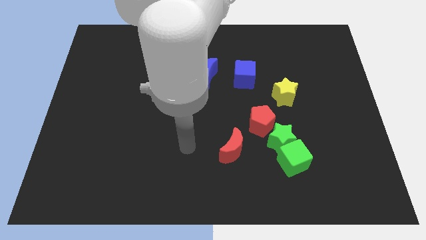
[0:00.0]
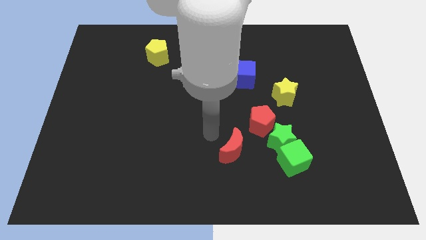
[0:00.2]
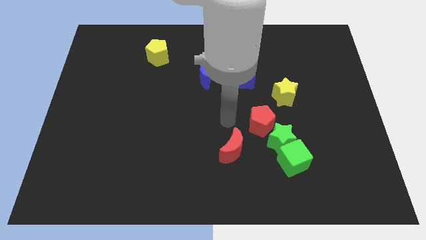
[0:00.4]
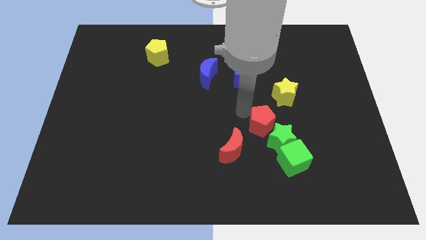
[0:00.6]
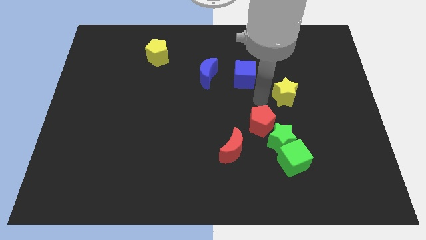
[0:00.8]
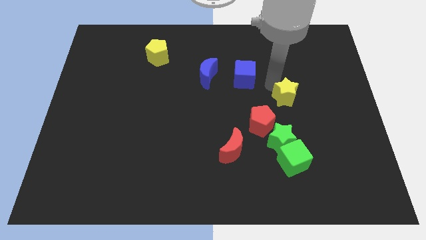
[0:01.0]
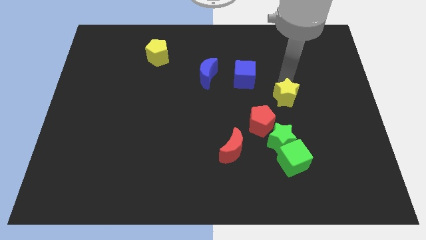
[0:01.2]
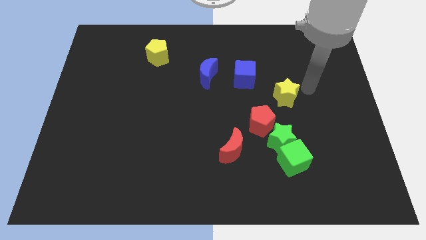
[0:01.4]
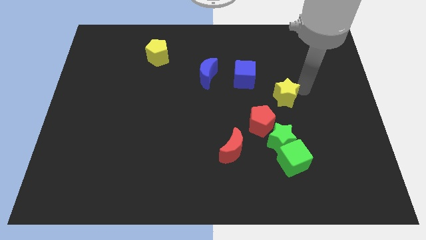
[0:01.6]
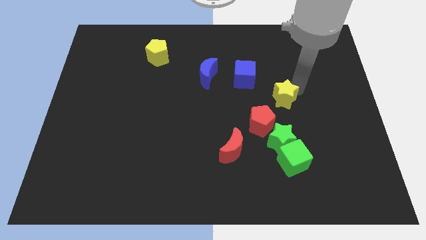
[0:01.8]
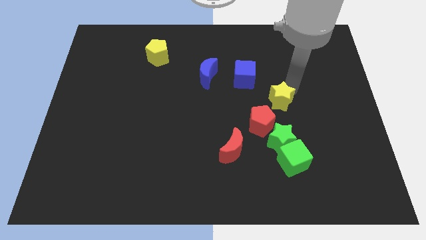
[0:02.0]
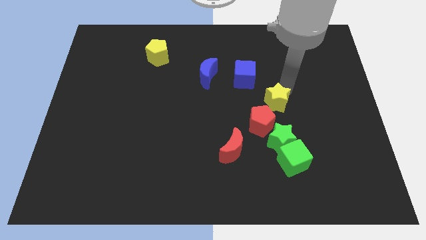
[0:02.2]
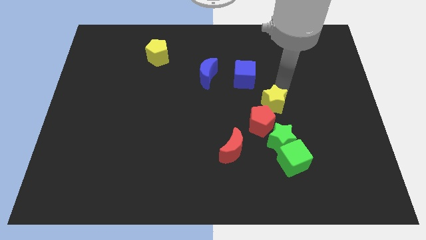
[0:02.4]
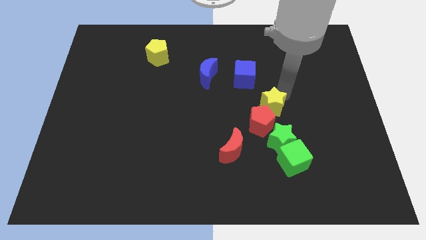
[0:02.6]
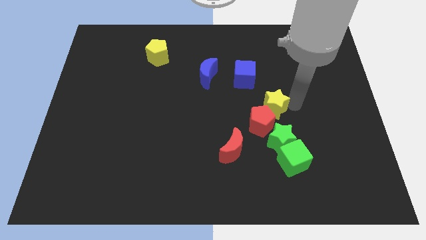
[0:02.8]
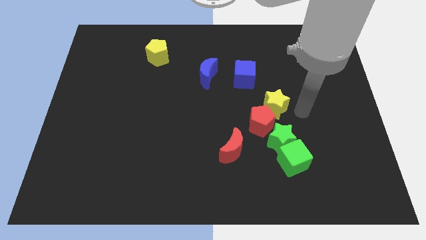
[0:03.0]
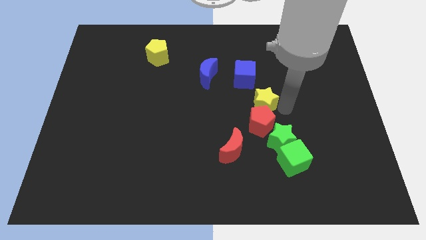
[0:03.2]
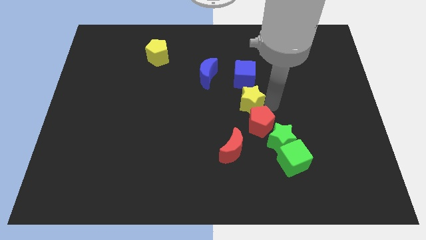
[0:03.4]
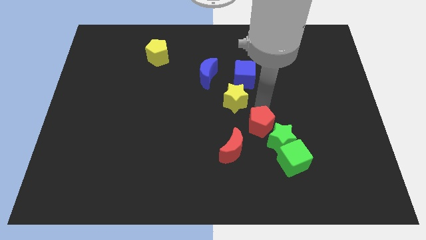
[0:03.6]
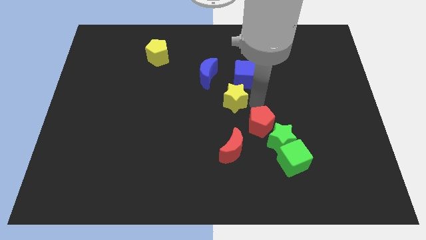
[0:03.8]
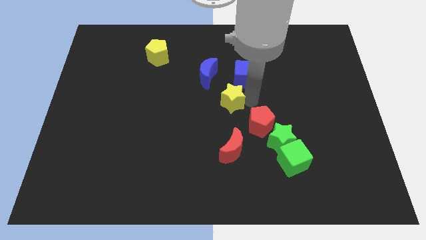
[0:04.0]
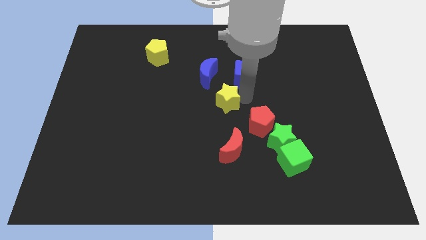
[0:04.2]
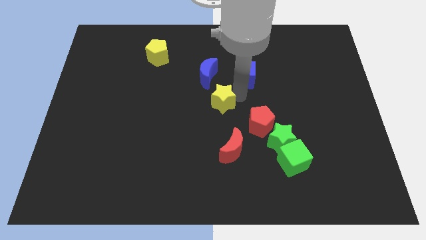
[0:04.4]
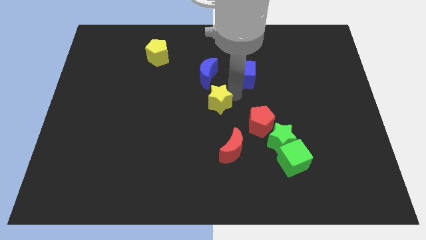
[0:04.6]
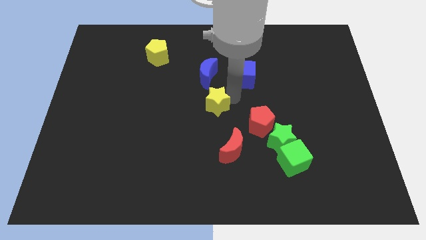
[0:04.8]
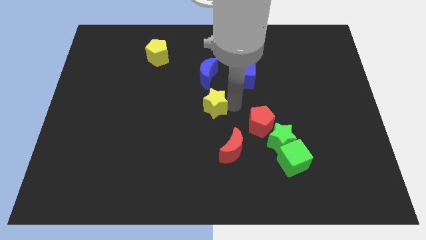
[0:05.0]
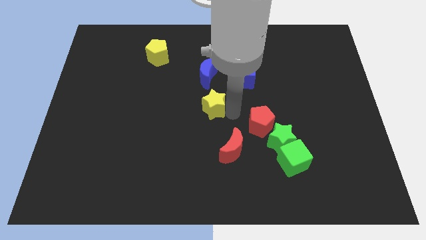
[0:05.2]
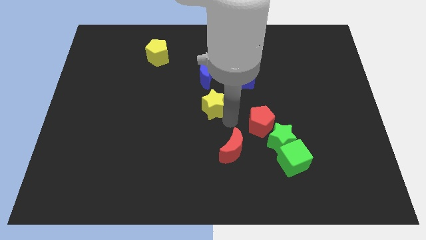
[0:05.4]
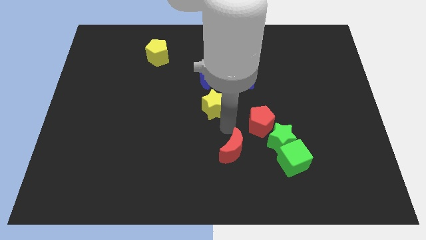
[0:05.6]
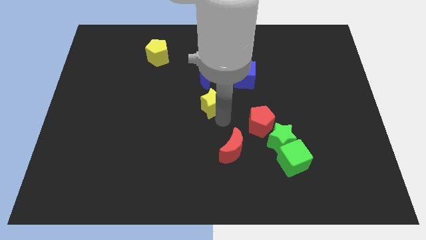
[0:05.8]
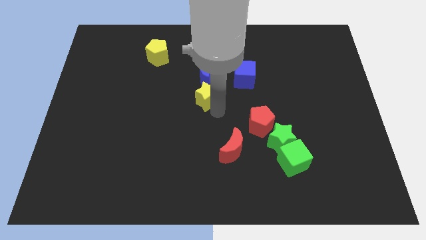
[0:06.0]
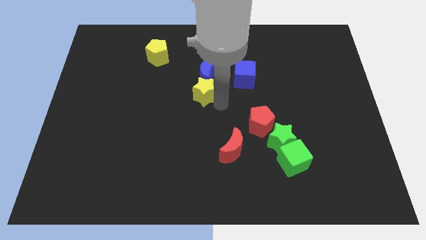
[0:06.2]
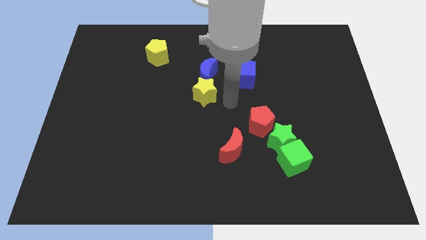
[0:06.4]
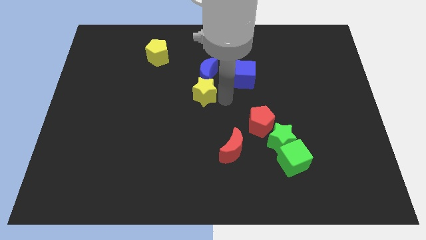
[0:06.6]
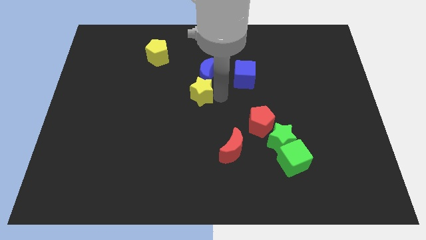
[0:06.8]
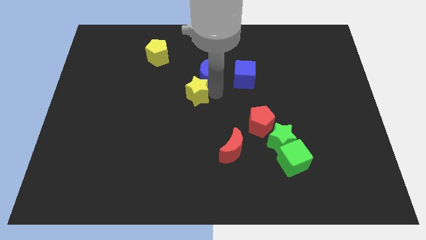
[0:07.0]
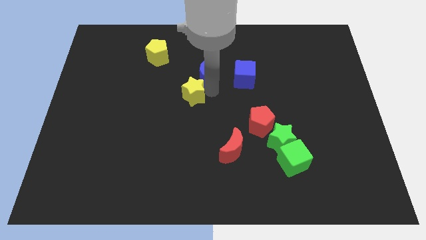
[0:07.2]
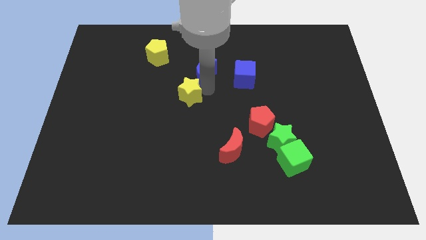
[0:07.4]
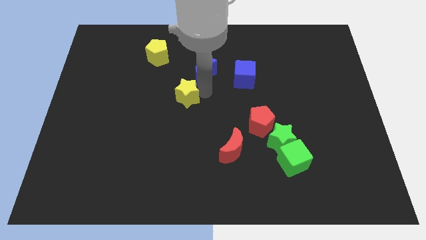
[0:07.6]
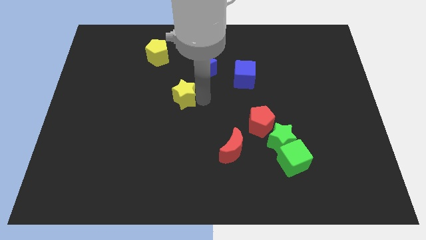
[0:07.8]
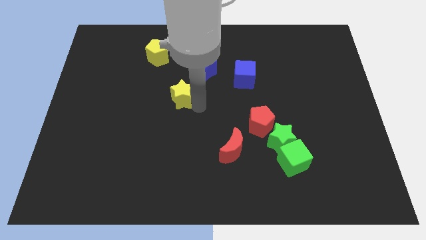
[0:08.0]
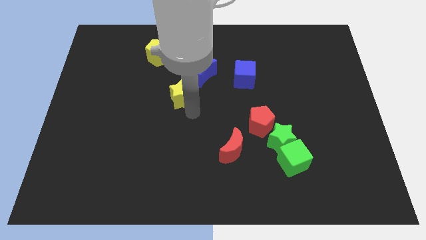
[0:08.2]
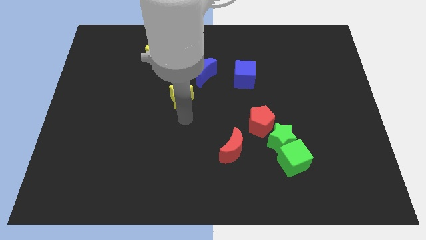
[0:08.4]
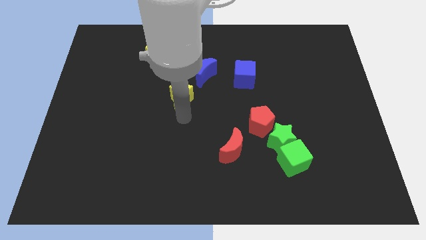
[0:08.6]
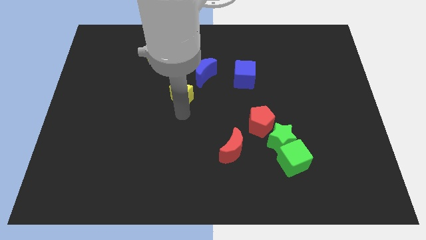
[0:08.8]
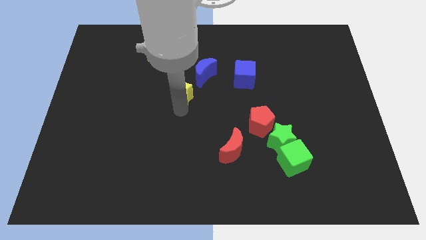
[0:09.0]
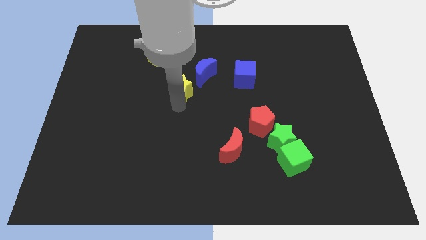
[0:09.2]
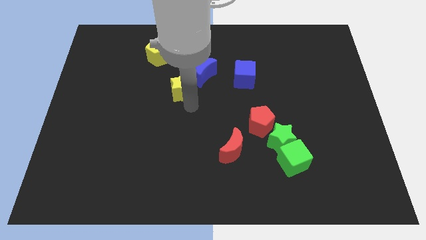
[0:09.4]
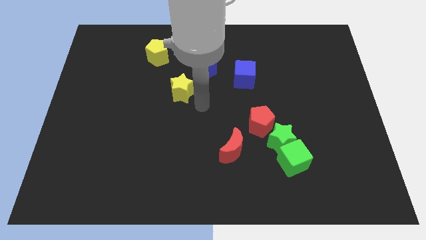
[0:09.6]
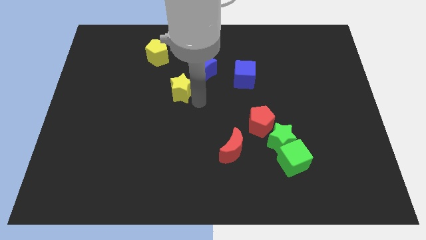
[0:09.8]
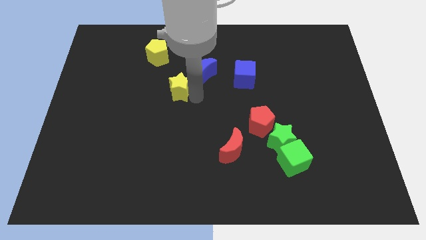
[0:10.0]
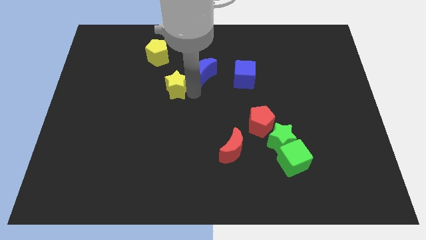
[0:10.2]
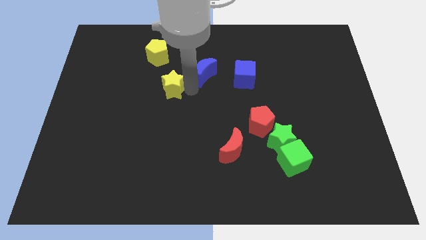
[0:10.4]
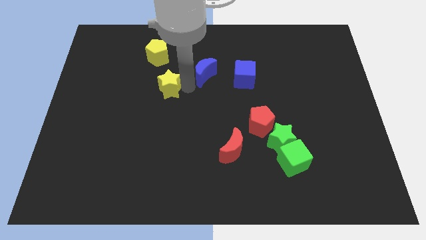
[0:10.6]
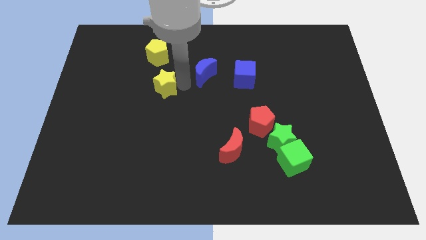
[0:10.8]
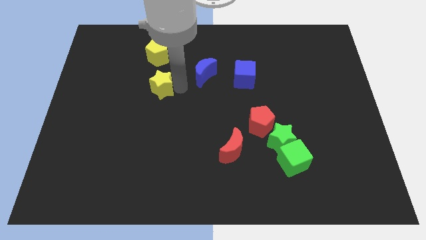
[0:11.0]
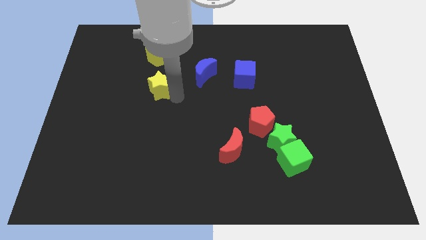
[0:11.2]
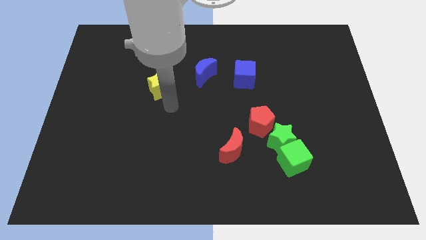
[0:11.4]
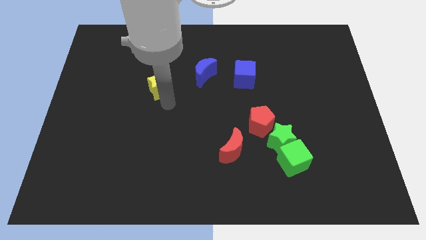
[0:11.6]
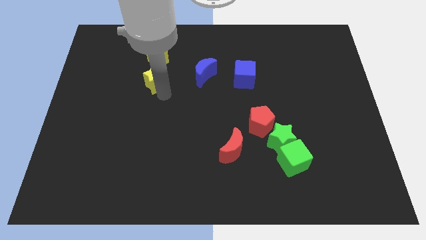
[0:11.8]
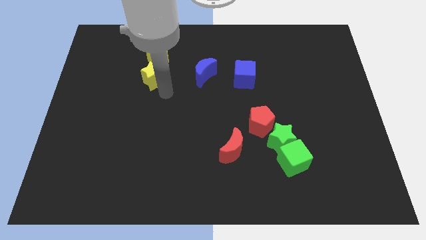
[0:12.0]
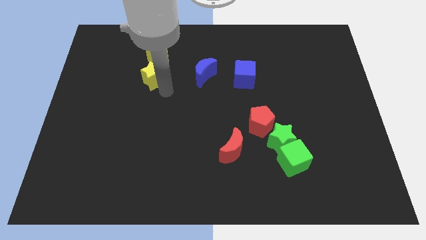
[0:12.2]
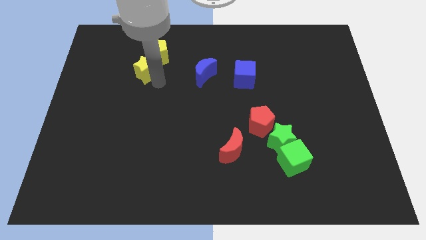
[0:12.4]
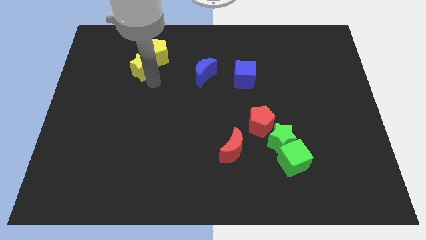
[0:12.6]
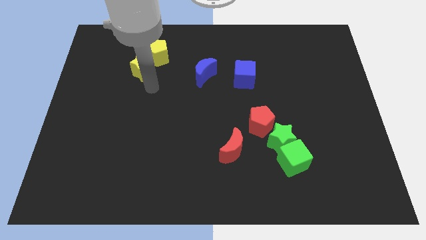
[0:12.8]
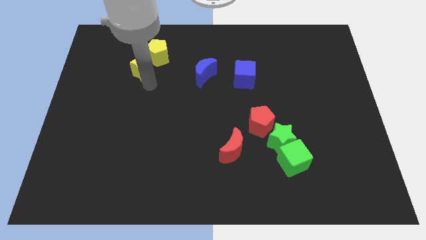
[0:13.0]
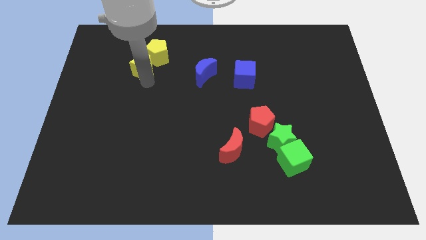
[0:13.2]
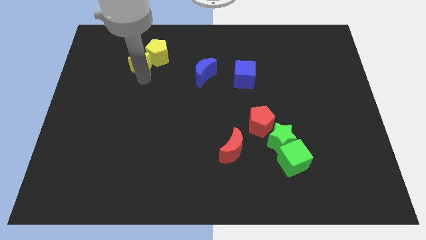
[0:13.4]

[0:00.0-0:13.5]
push the yellow star to the left side of the yellow pentagon

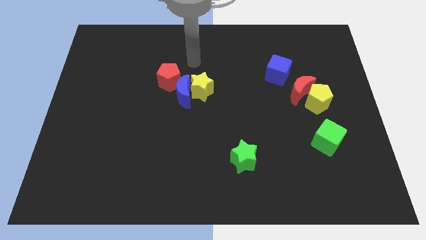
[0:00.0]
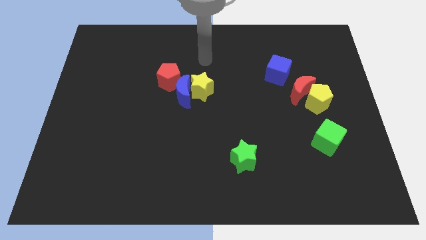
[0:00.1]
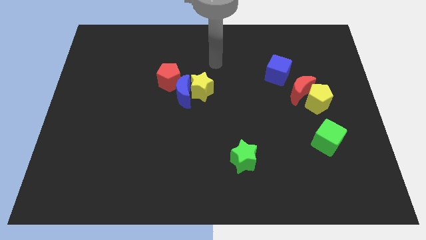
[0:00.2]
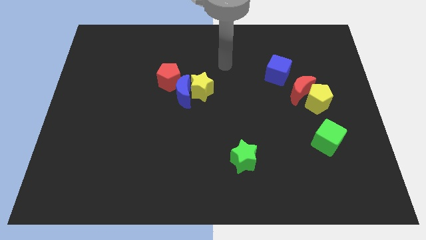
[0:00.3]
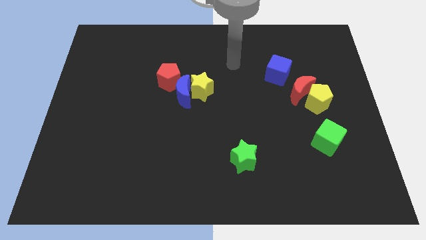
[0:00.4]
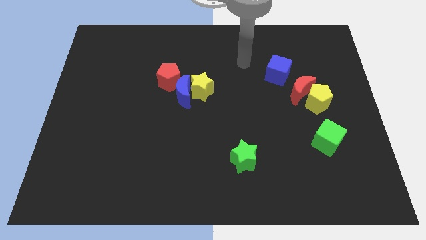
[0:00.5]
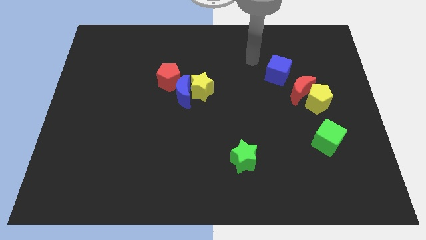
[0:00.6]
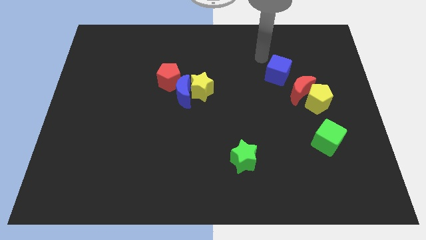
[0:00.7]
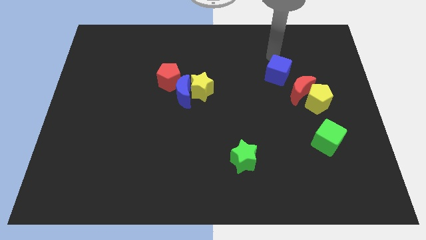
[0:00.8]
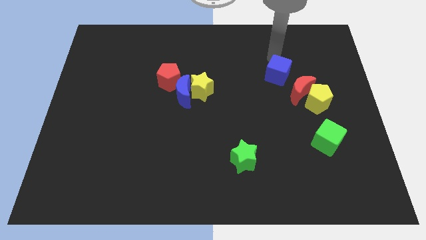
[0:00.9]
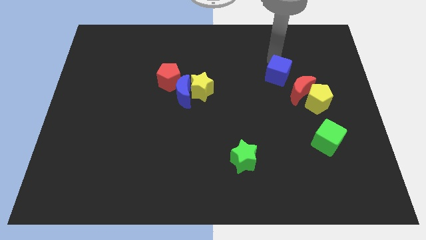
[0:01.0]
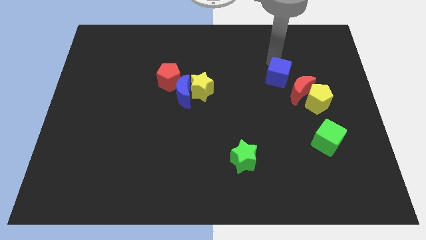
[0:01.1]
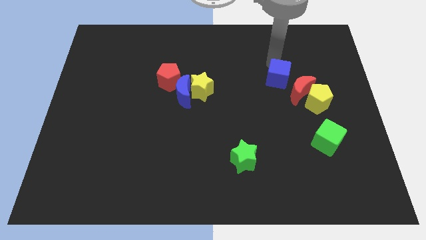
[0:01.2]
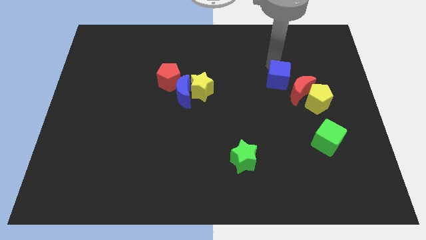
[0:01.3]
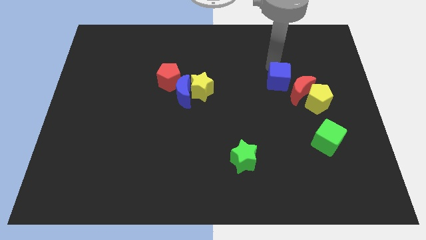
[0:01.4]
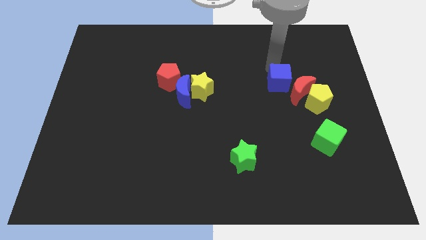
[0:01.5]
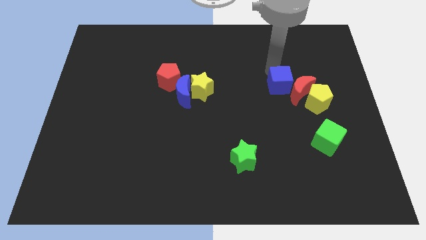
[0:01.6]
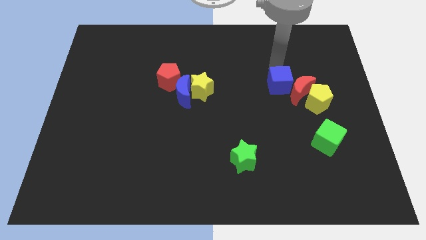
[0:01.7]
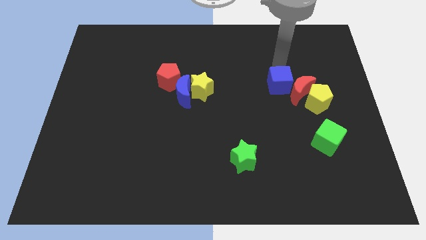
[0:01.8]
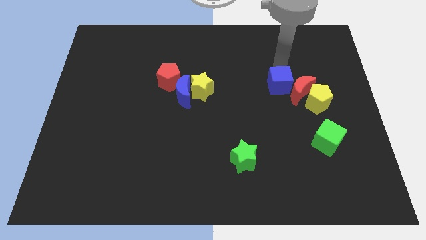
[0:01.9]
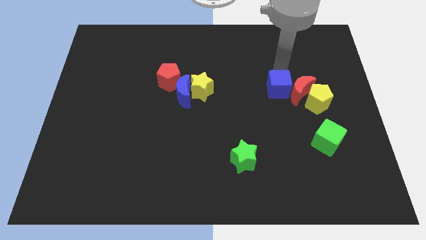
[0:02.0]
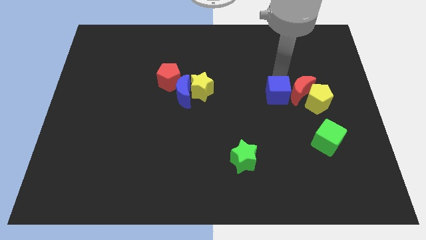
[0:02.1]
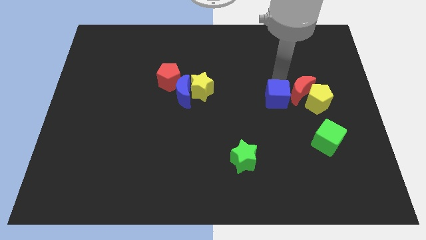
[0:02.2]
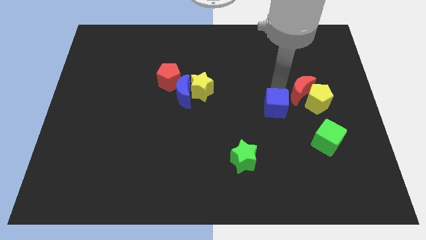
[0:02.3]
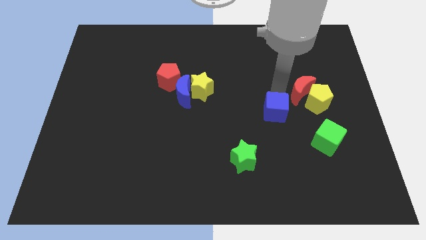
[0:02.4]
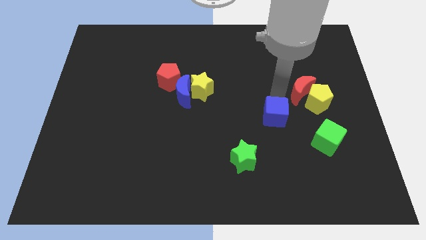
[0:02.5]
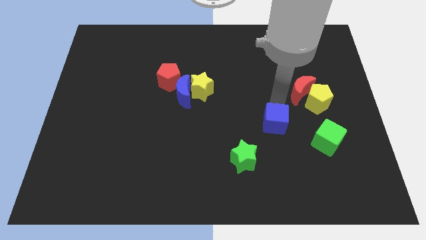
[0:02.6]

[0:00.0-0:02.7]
slide the blue cube diagonally up and to the right of the green star
